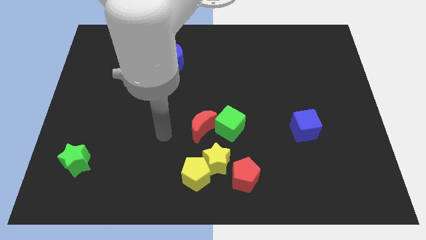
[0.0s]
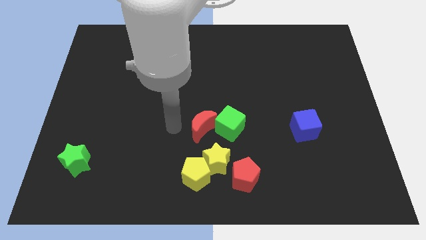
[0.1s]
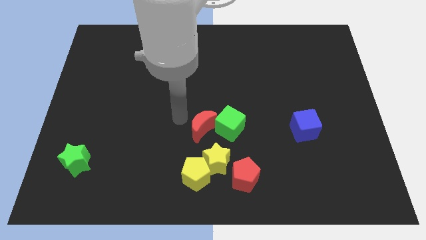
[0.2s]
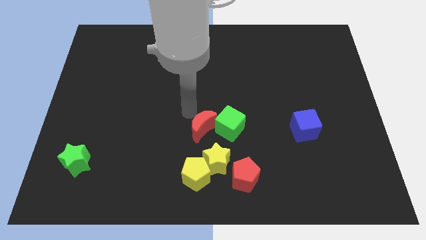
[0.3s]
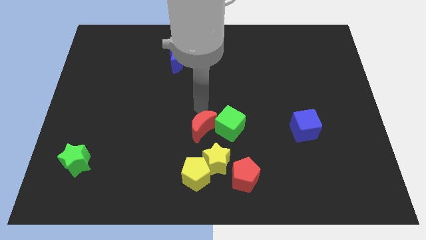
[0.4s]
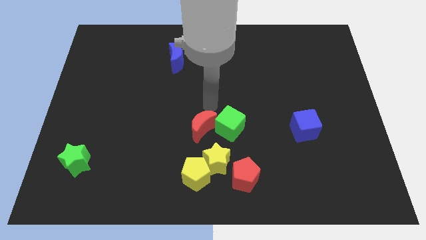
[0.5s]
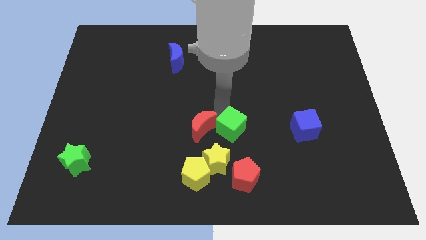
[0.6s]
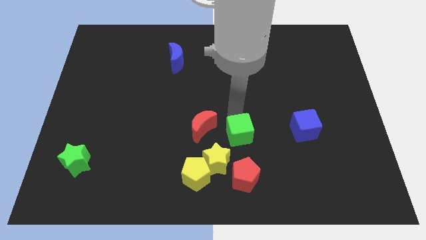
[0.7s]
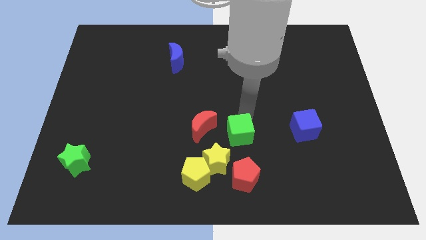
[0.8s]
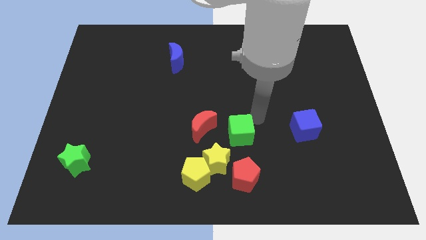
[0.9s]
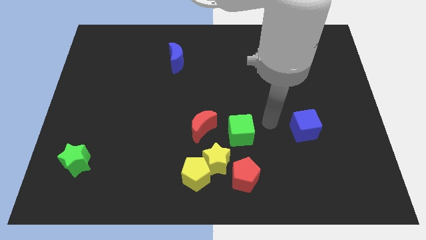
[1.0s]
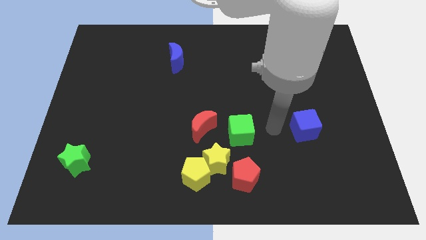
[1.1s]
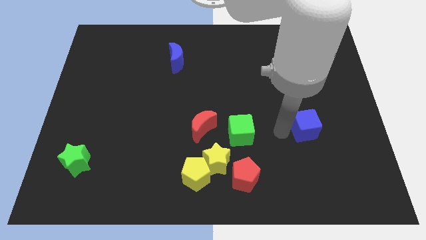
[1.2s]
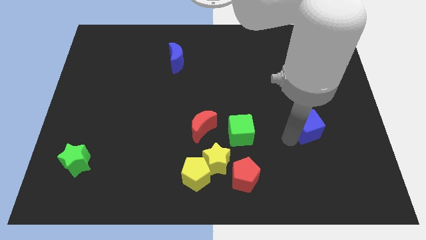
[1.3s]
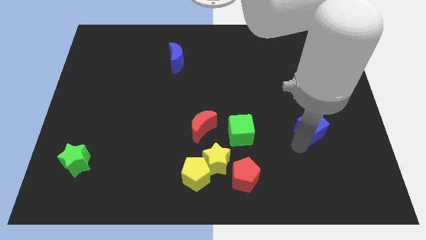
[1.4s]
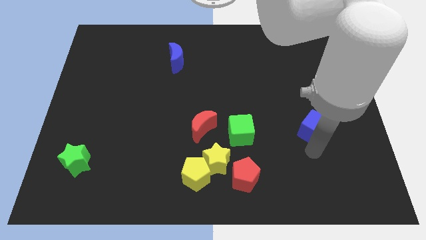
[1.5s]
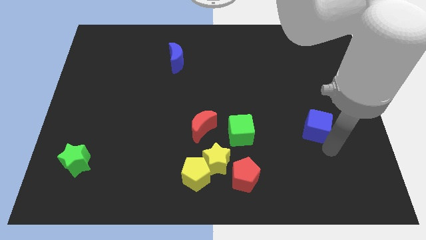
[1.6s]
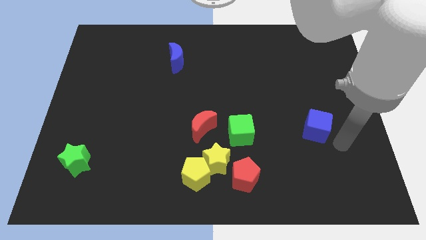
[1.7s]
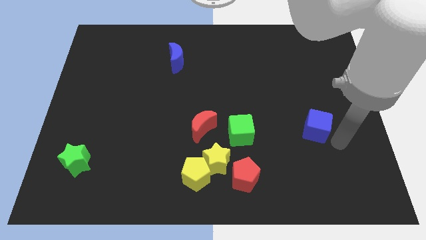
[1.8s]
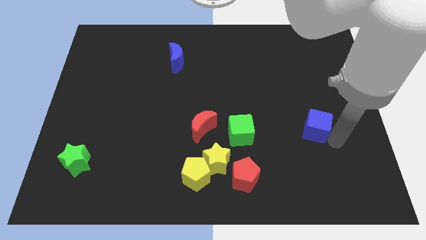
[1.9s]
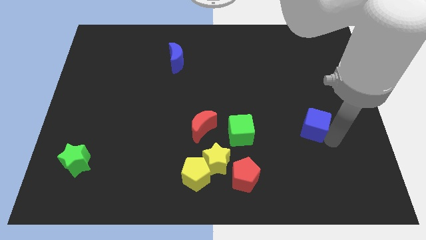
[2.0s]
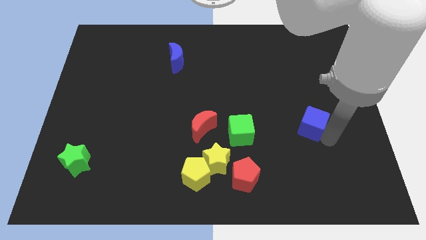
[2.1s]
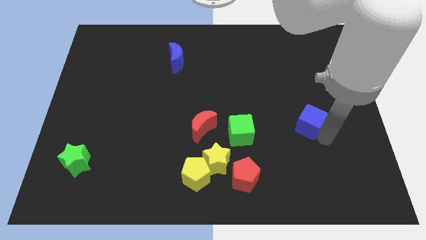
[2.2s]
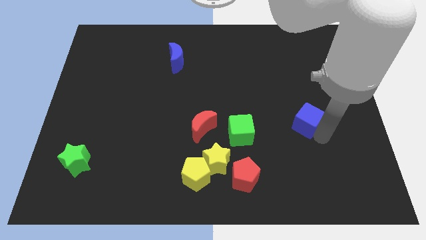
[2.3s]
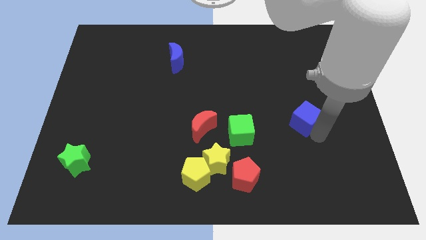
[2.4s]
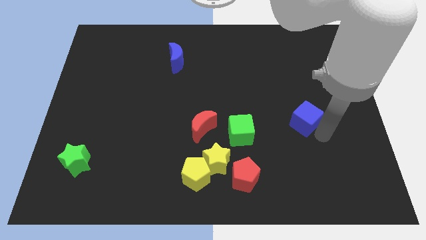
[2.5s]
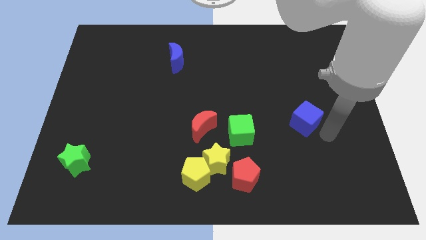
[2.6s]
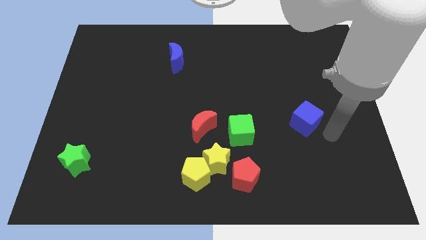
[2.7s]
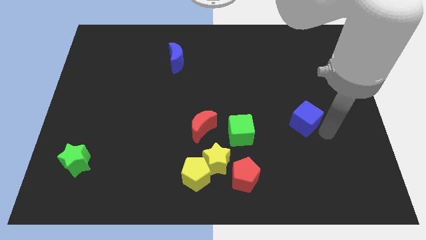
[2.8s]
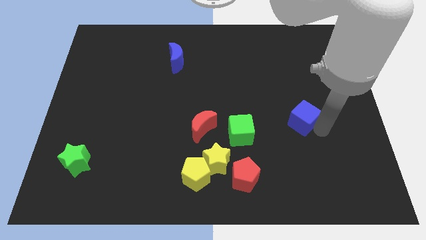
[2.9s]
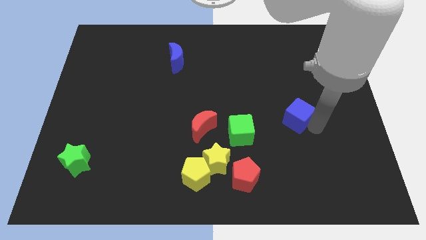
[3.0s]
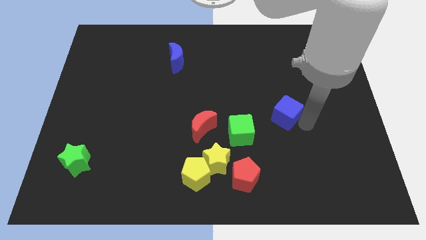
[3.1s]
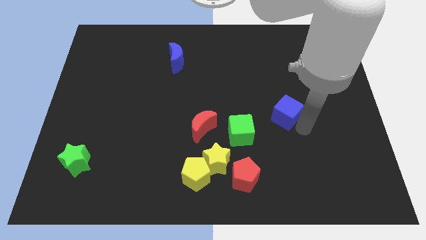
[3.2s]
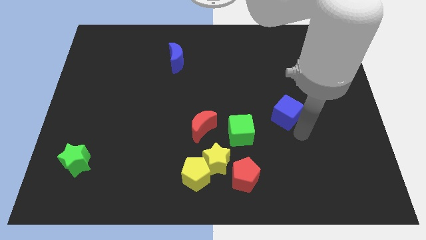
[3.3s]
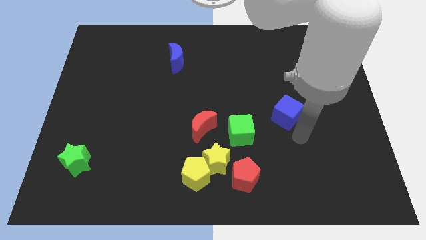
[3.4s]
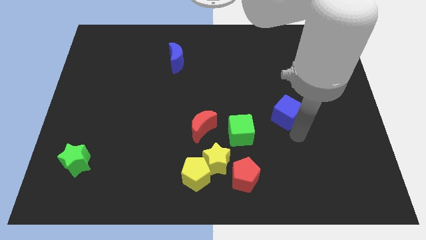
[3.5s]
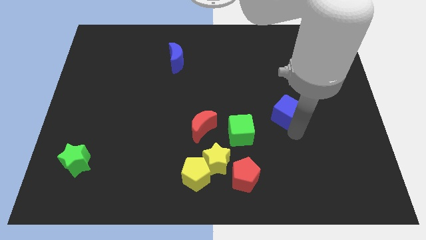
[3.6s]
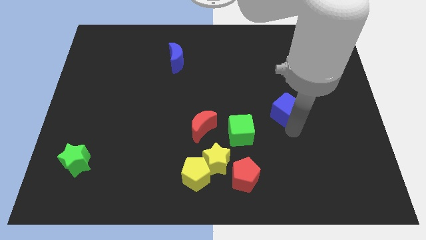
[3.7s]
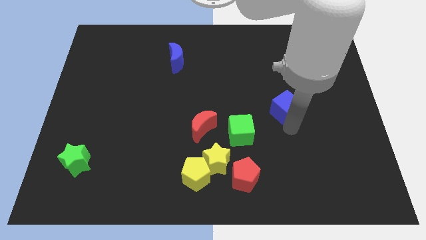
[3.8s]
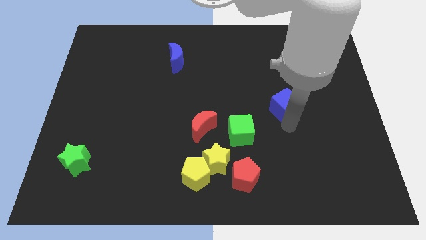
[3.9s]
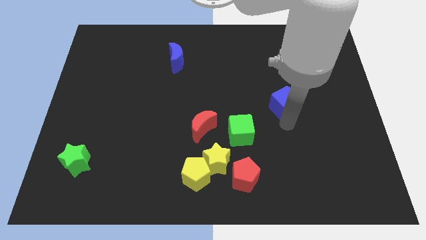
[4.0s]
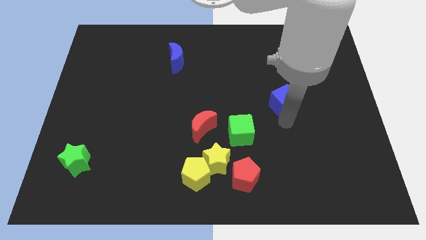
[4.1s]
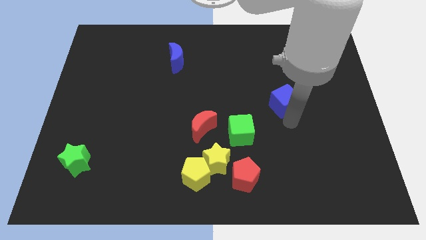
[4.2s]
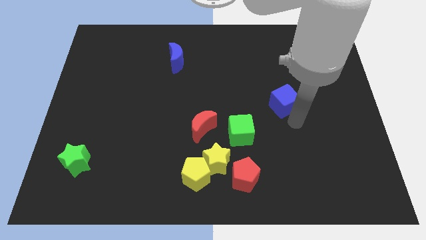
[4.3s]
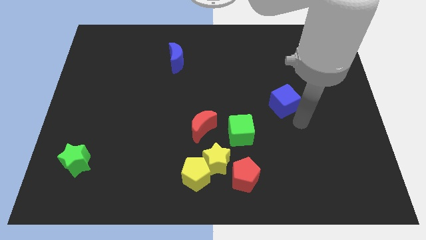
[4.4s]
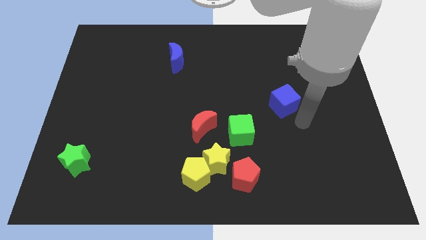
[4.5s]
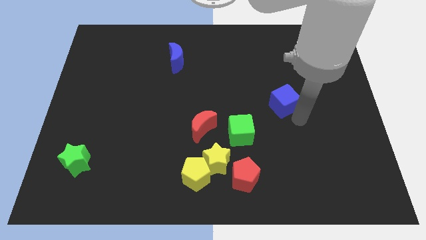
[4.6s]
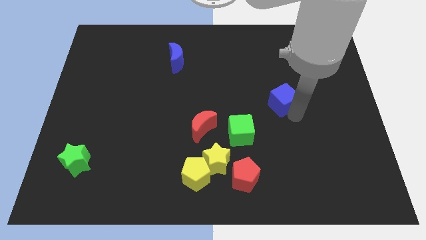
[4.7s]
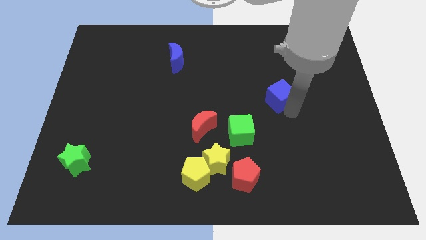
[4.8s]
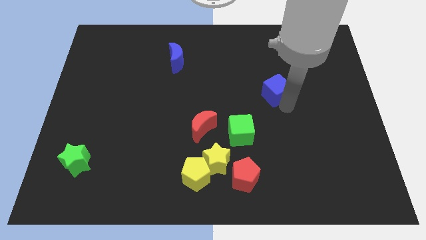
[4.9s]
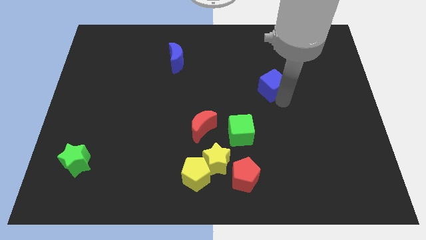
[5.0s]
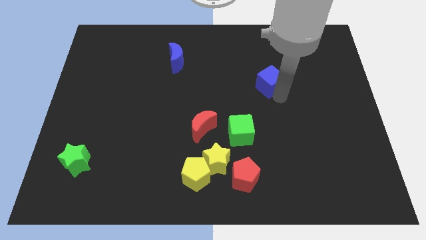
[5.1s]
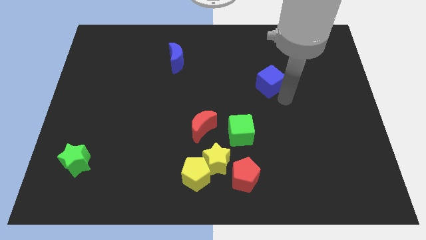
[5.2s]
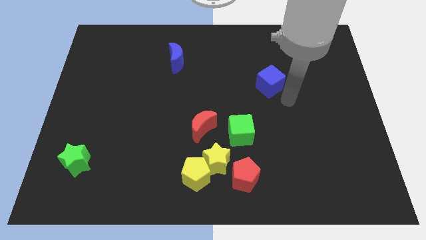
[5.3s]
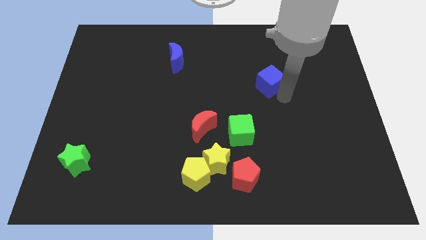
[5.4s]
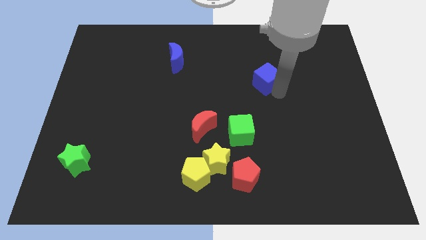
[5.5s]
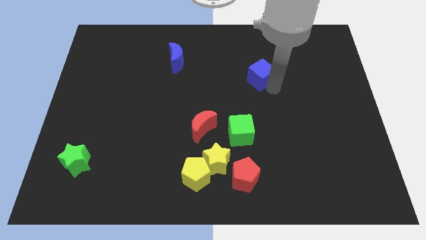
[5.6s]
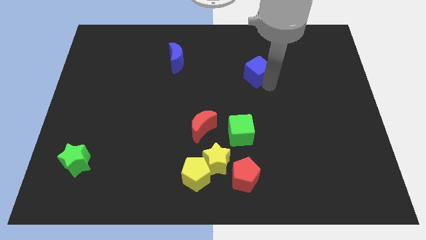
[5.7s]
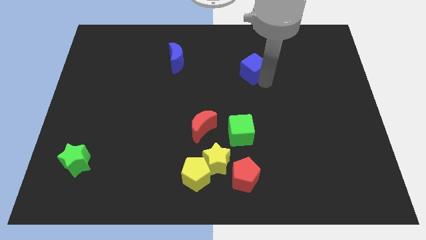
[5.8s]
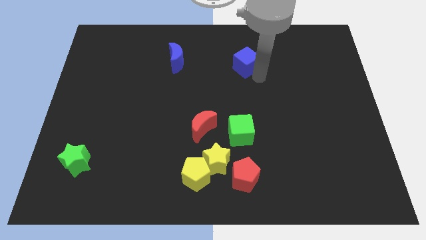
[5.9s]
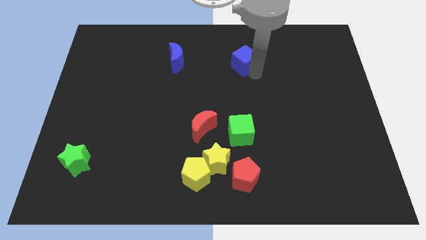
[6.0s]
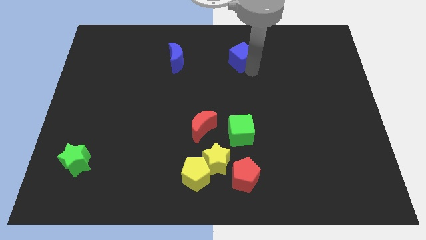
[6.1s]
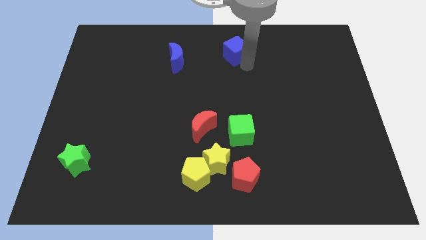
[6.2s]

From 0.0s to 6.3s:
push the blue cube to the top side
